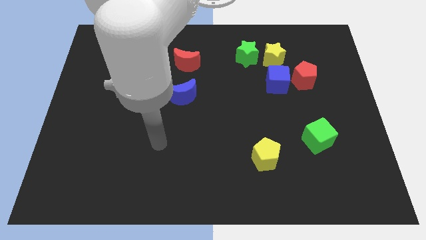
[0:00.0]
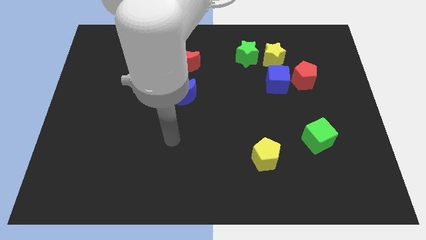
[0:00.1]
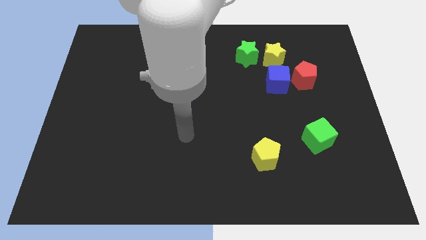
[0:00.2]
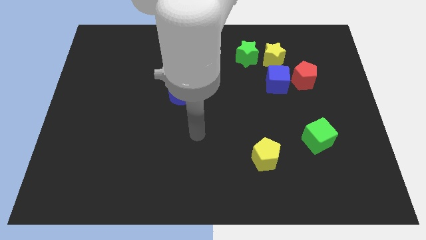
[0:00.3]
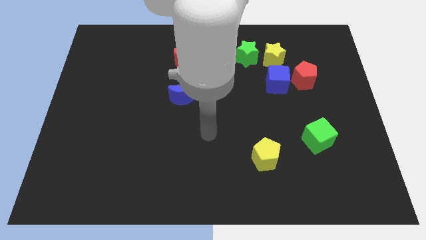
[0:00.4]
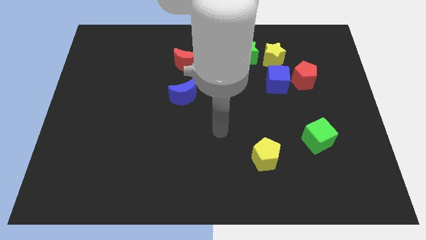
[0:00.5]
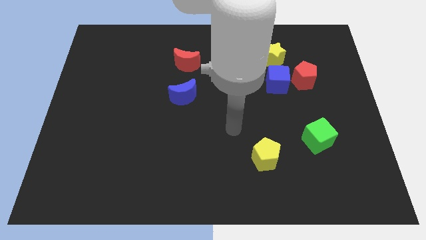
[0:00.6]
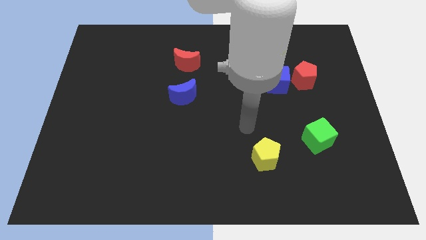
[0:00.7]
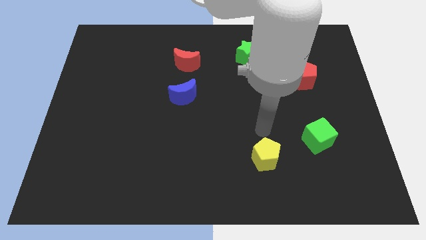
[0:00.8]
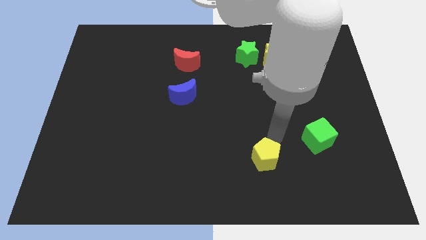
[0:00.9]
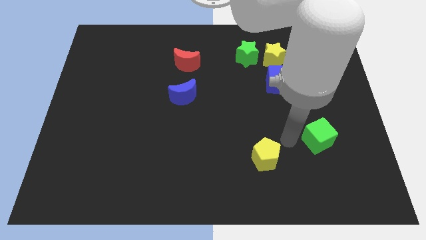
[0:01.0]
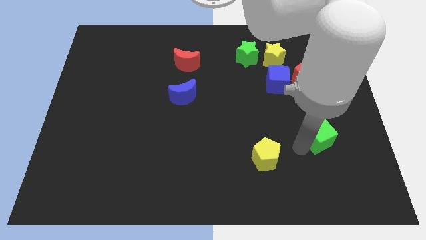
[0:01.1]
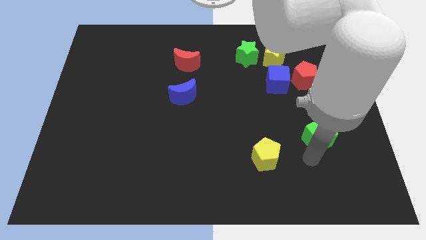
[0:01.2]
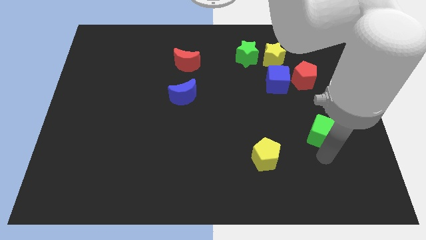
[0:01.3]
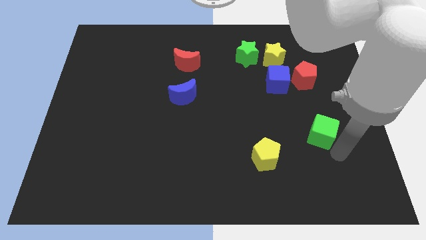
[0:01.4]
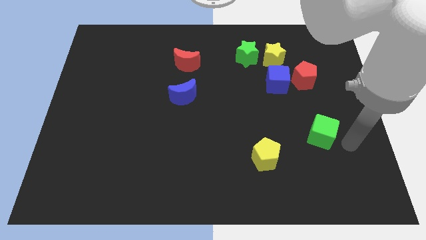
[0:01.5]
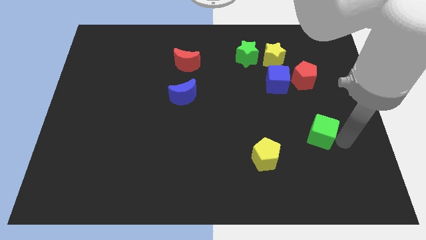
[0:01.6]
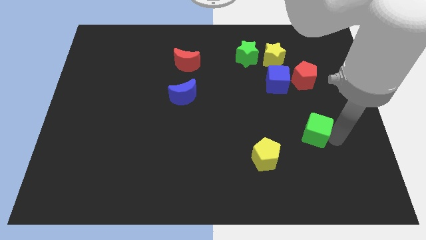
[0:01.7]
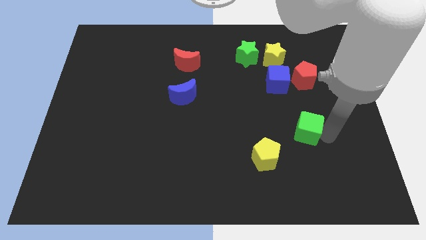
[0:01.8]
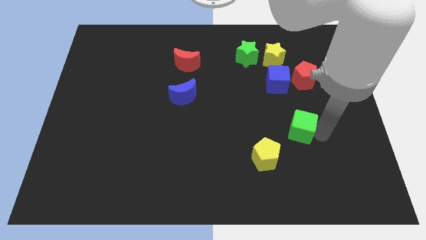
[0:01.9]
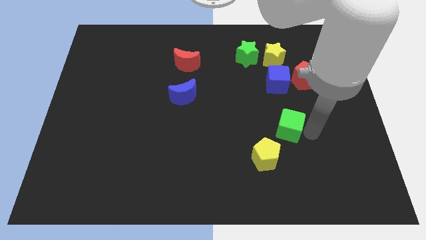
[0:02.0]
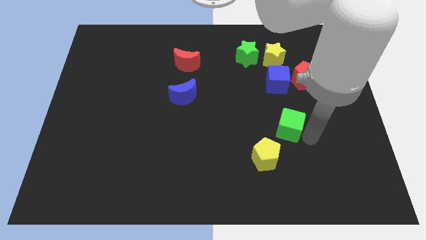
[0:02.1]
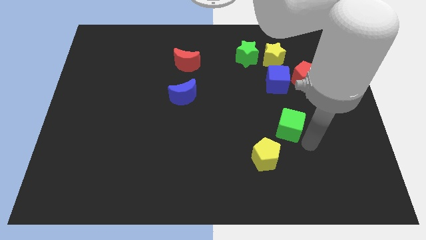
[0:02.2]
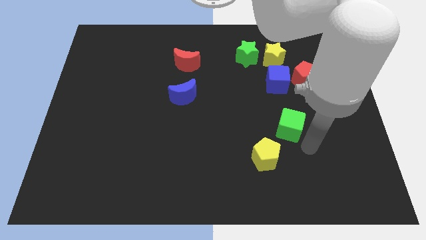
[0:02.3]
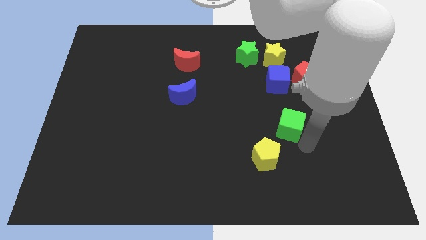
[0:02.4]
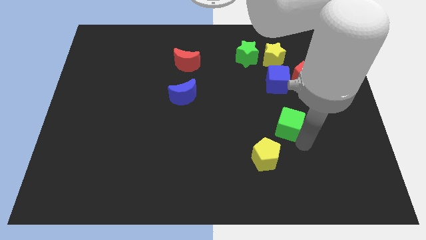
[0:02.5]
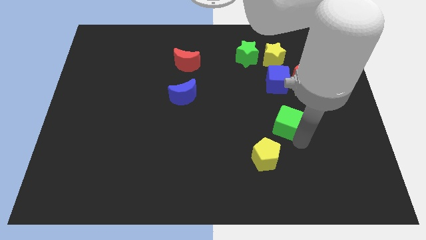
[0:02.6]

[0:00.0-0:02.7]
slightly push the green cube up and left

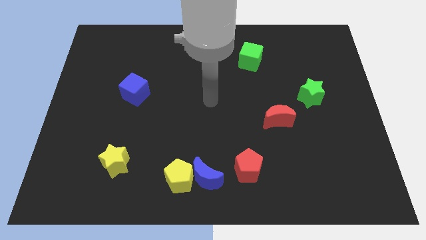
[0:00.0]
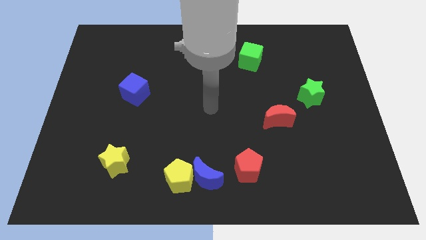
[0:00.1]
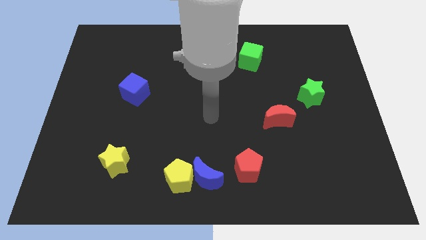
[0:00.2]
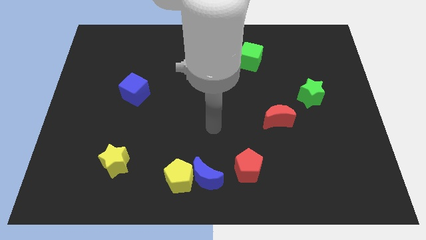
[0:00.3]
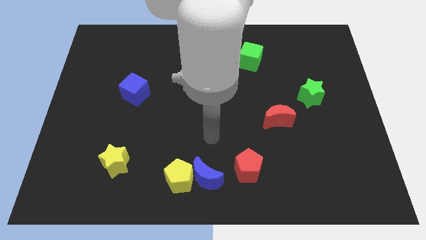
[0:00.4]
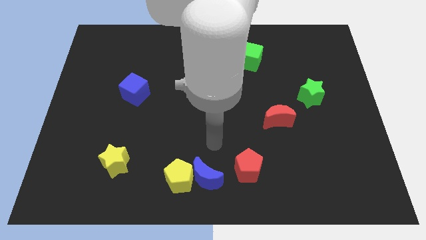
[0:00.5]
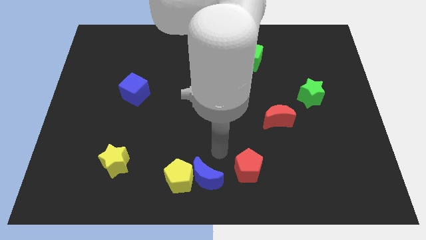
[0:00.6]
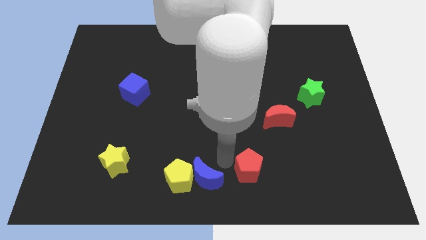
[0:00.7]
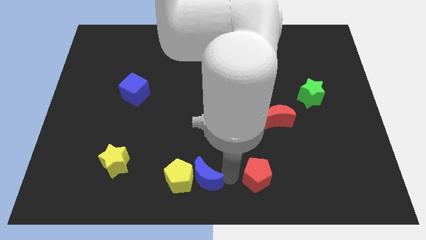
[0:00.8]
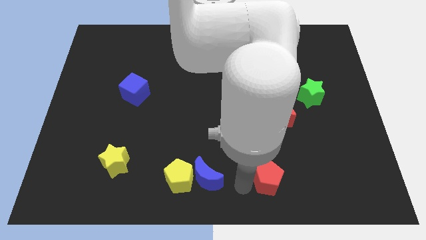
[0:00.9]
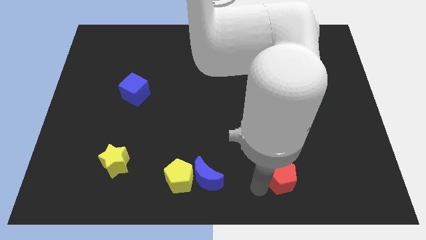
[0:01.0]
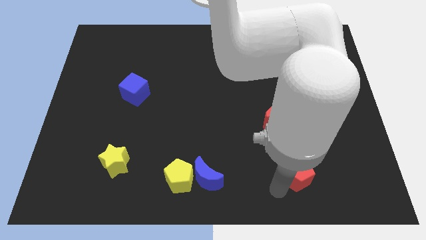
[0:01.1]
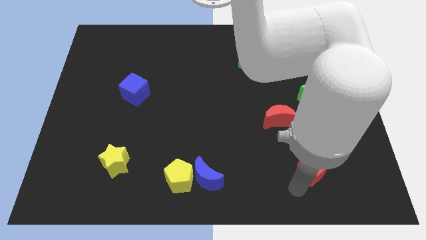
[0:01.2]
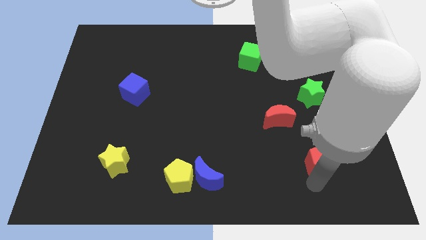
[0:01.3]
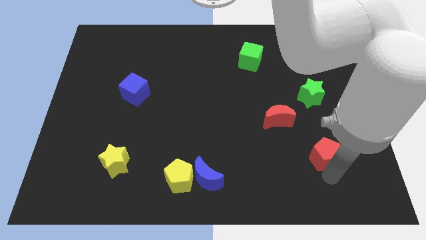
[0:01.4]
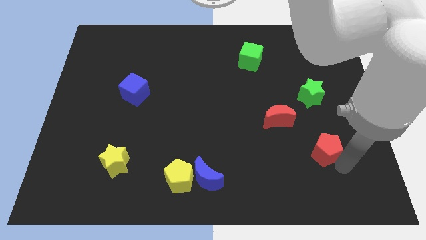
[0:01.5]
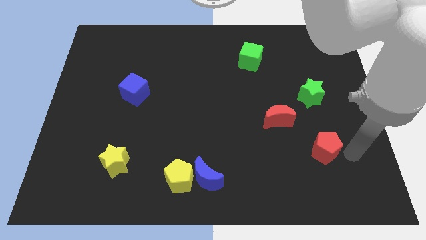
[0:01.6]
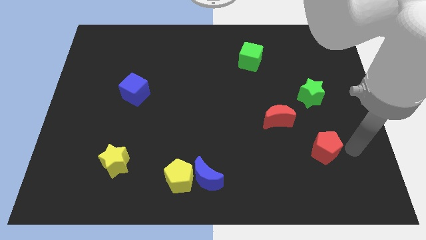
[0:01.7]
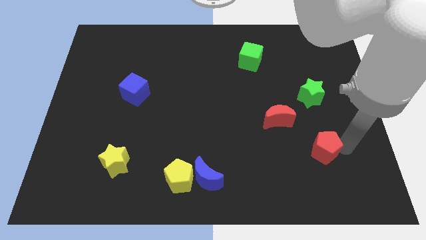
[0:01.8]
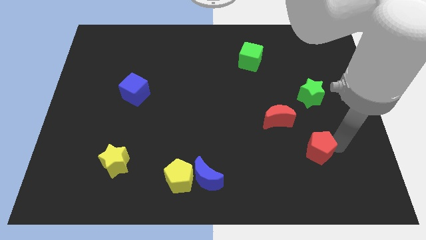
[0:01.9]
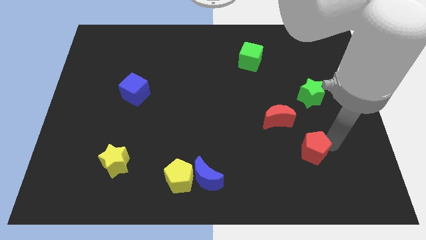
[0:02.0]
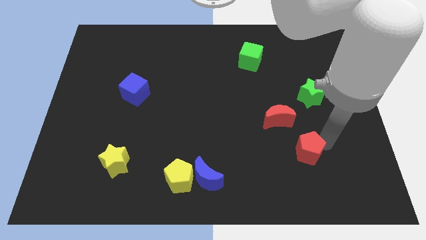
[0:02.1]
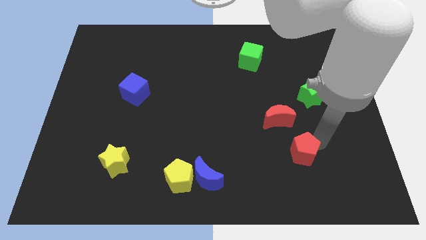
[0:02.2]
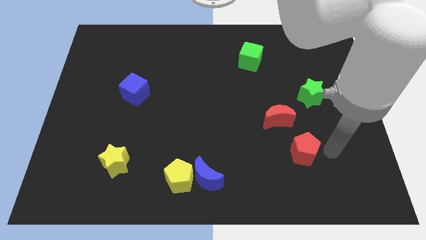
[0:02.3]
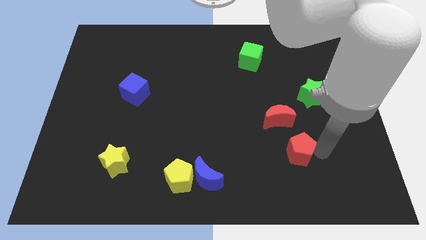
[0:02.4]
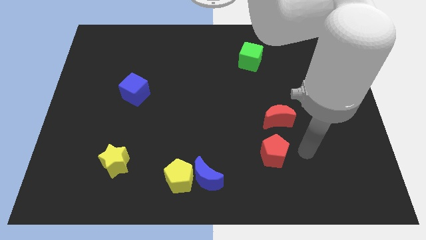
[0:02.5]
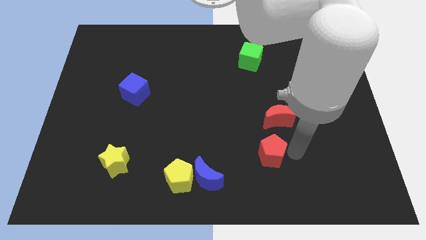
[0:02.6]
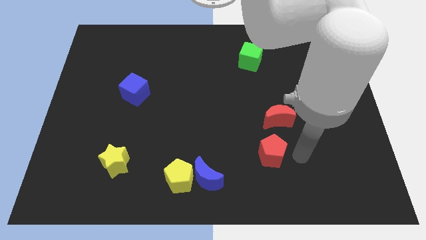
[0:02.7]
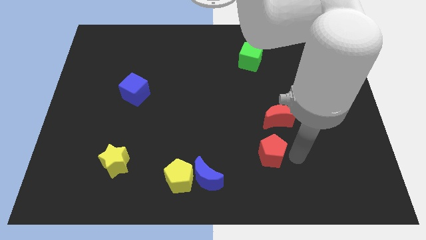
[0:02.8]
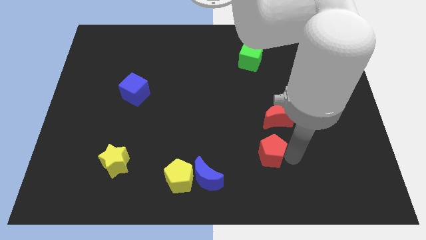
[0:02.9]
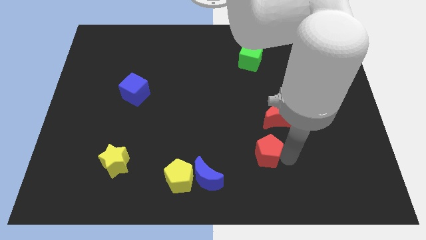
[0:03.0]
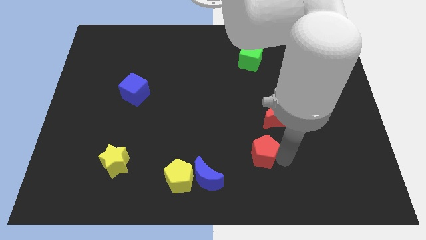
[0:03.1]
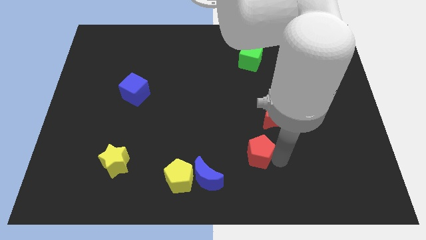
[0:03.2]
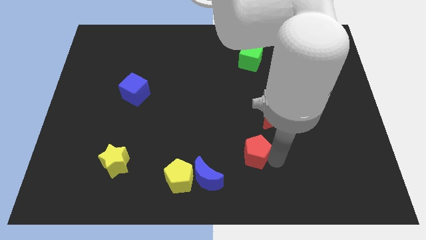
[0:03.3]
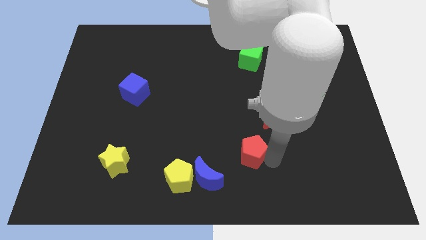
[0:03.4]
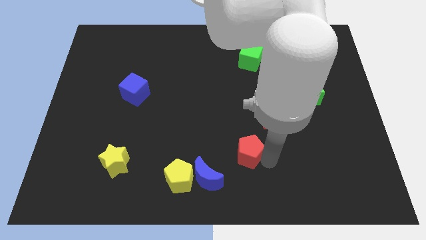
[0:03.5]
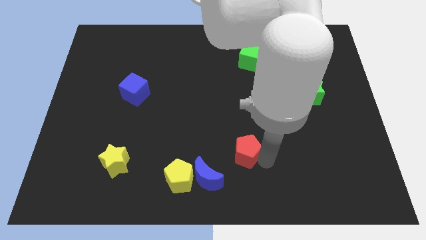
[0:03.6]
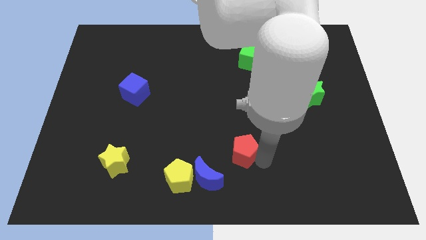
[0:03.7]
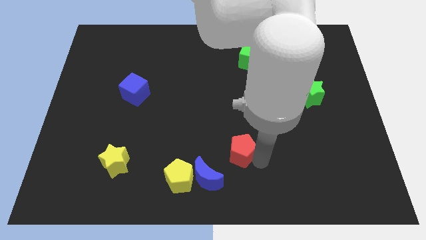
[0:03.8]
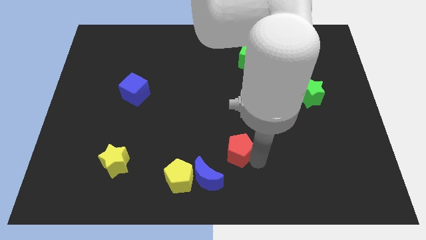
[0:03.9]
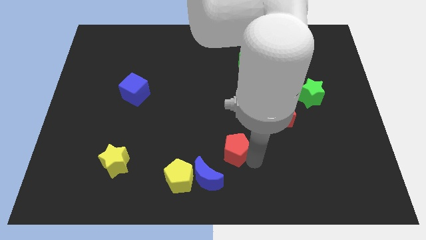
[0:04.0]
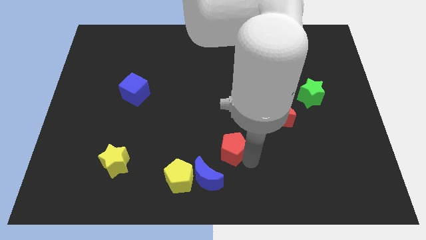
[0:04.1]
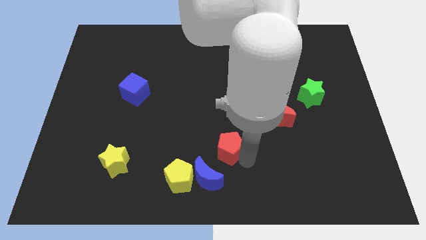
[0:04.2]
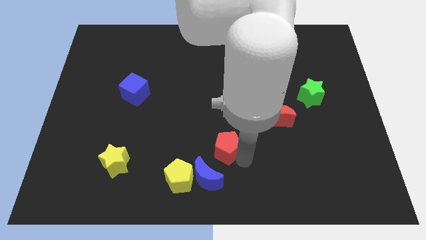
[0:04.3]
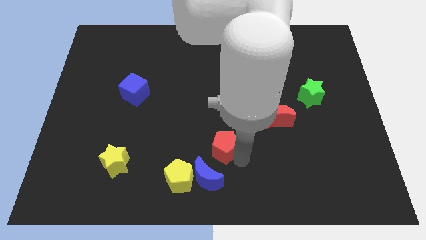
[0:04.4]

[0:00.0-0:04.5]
push the red pentagon a little up and left diagonally

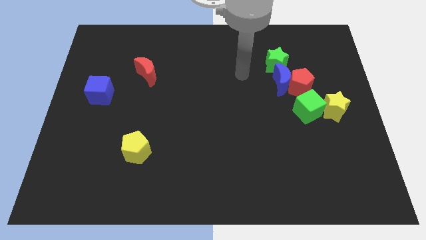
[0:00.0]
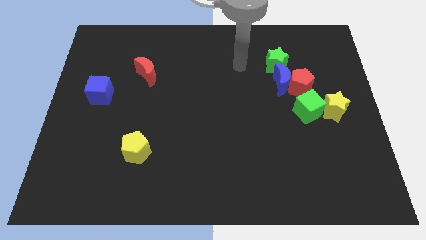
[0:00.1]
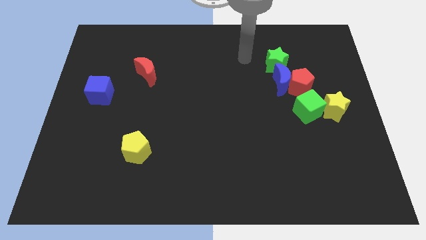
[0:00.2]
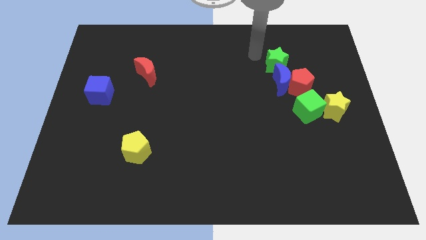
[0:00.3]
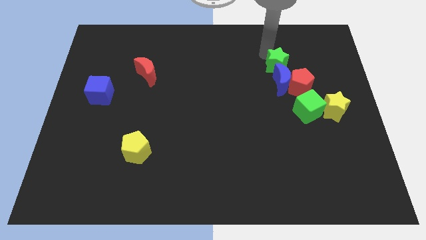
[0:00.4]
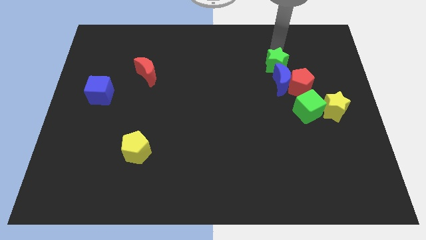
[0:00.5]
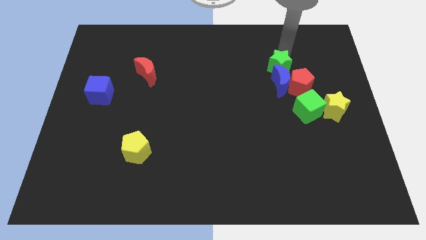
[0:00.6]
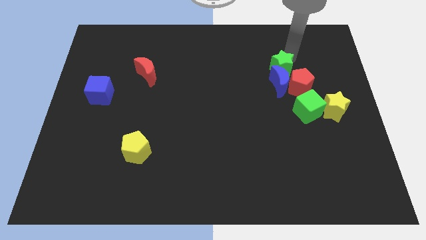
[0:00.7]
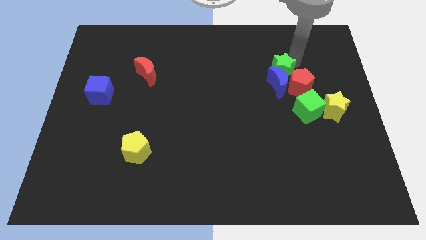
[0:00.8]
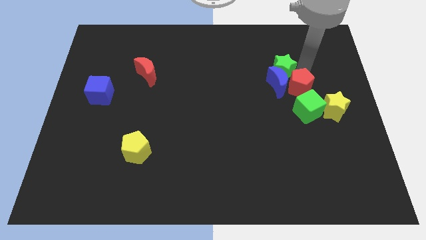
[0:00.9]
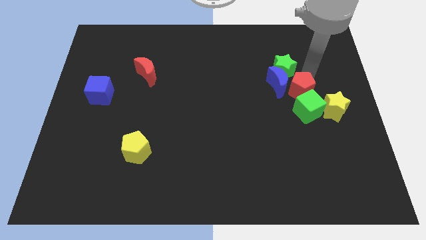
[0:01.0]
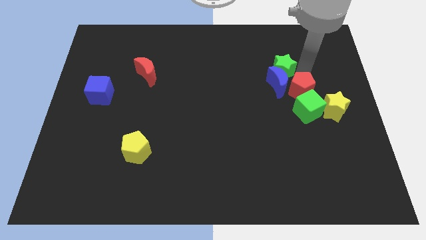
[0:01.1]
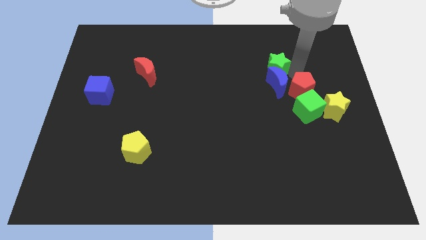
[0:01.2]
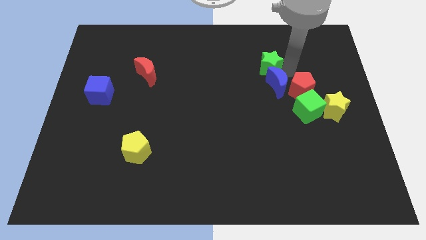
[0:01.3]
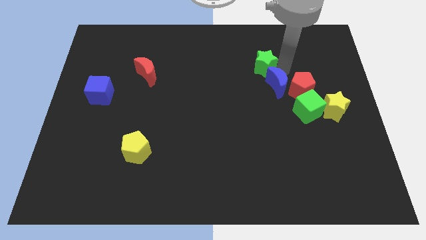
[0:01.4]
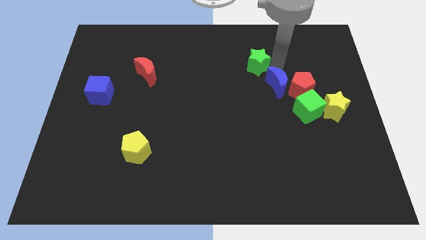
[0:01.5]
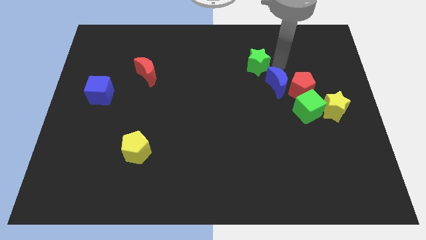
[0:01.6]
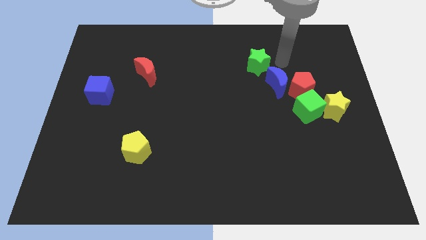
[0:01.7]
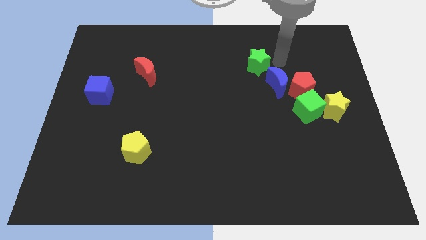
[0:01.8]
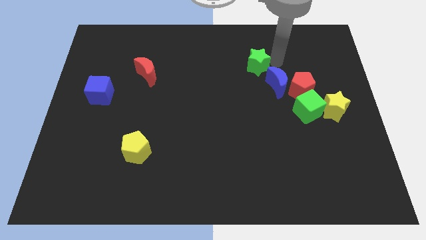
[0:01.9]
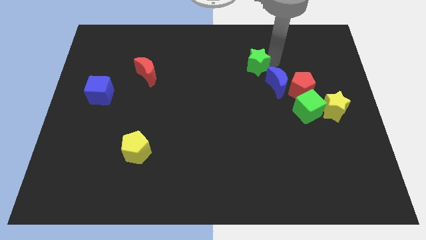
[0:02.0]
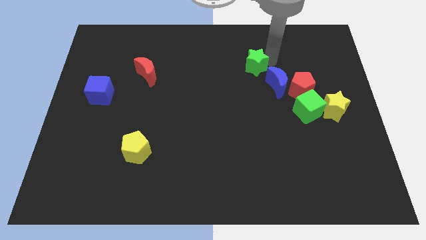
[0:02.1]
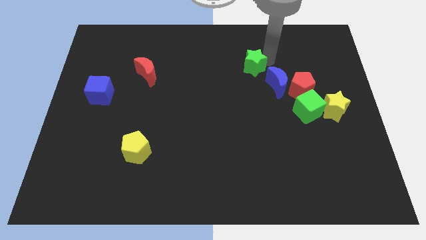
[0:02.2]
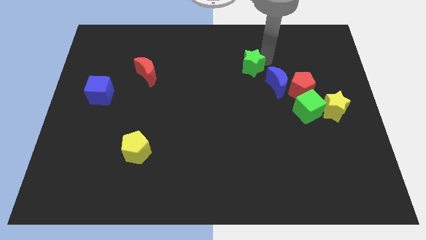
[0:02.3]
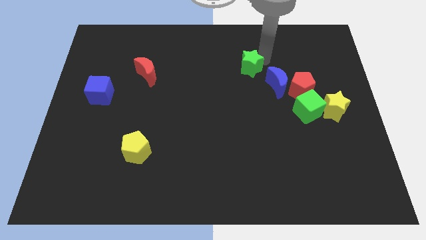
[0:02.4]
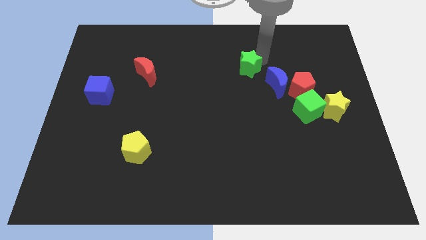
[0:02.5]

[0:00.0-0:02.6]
push the green star left a little
